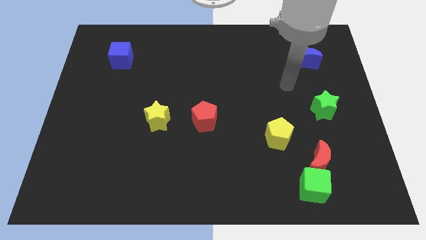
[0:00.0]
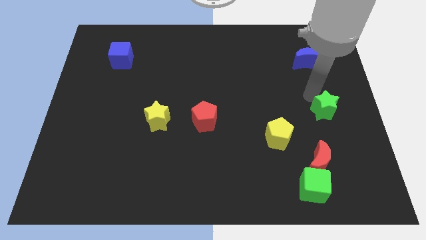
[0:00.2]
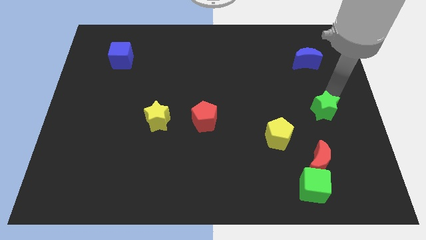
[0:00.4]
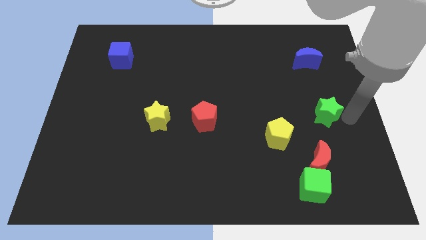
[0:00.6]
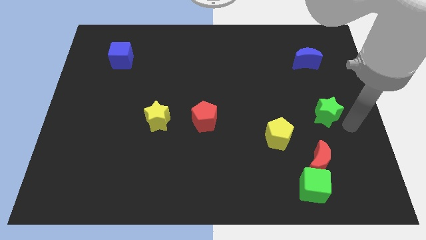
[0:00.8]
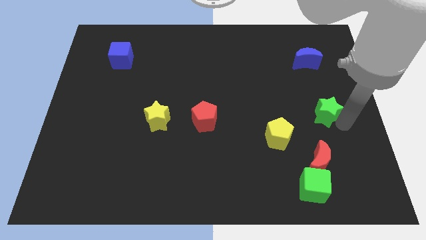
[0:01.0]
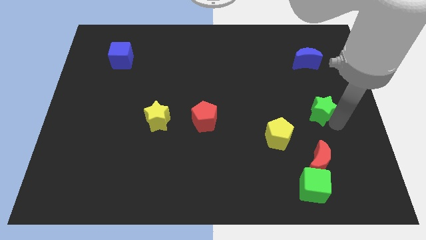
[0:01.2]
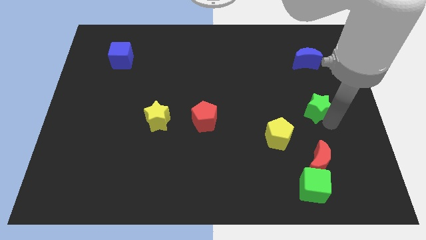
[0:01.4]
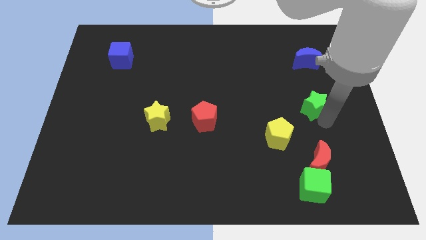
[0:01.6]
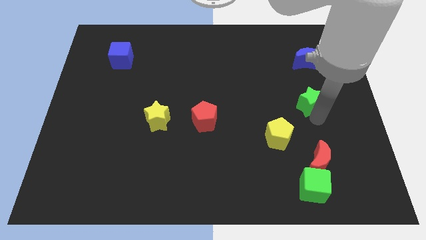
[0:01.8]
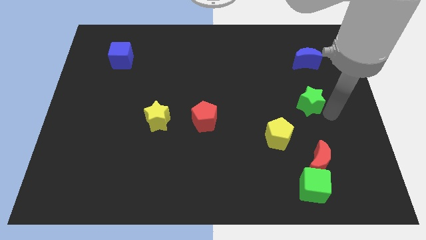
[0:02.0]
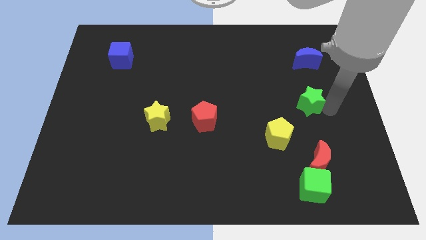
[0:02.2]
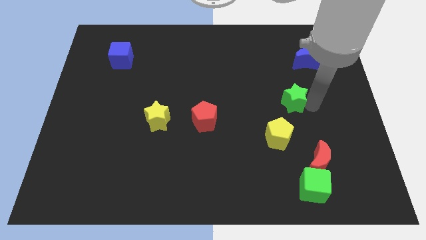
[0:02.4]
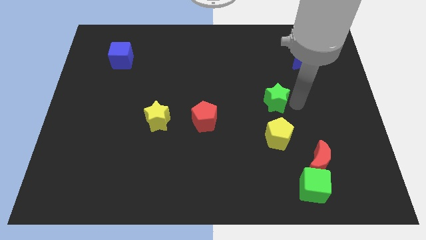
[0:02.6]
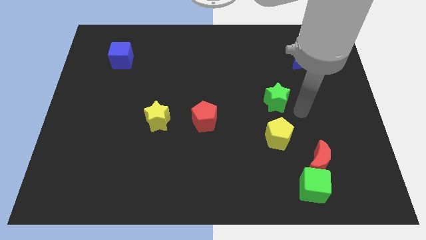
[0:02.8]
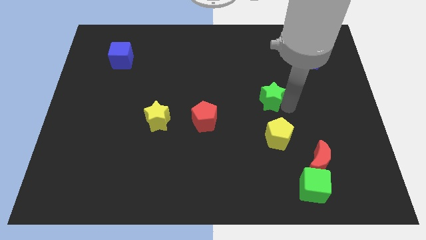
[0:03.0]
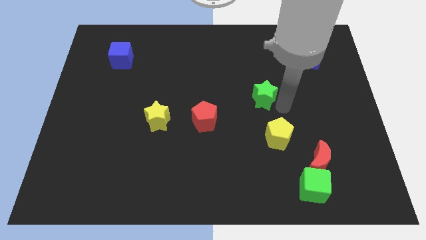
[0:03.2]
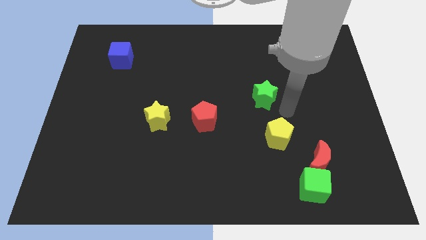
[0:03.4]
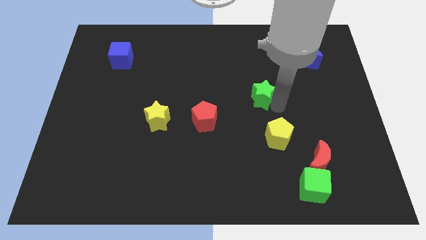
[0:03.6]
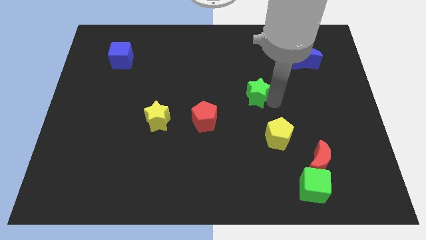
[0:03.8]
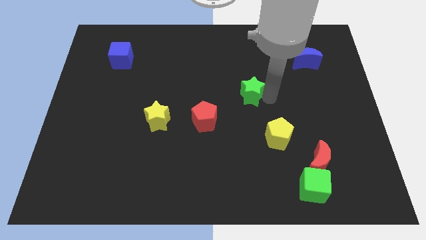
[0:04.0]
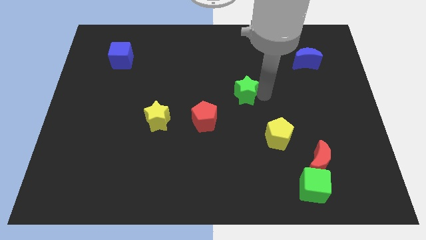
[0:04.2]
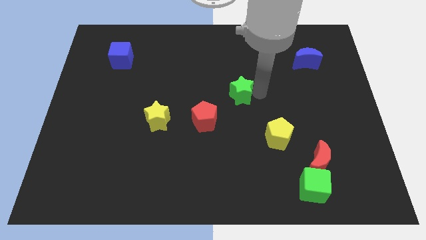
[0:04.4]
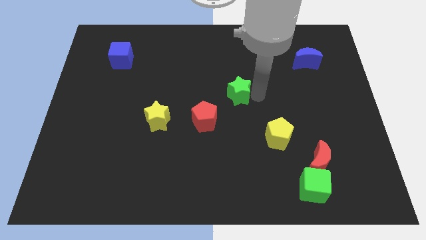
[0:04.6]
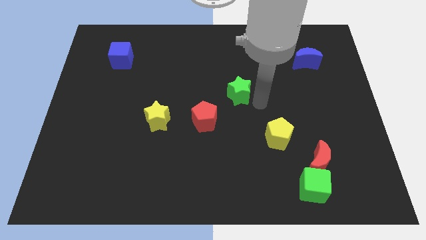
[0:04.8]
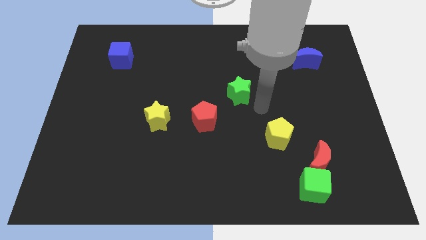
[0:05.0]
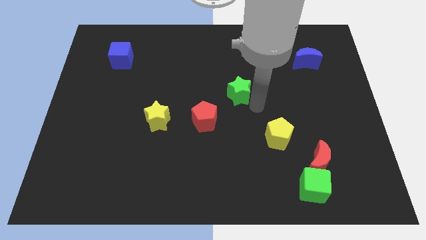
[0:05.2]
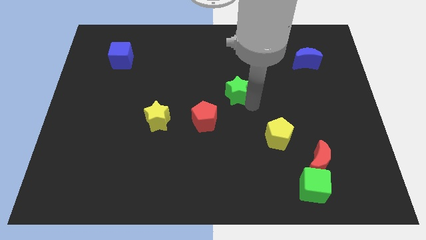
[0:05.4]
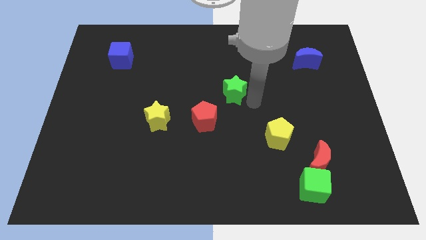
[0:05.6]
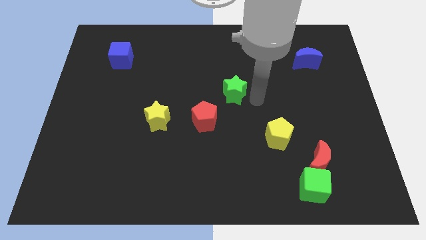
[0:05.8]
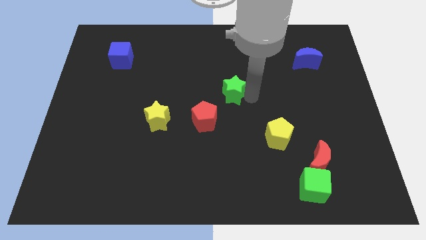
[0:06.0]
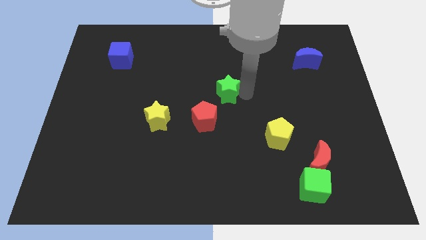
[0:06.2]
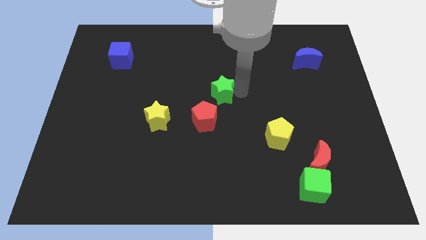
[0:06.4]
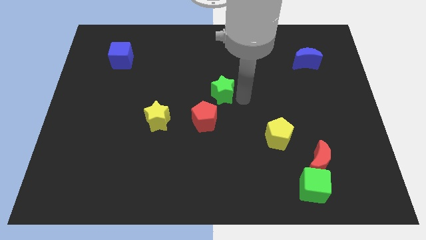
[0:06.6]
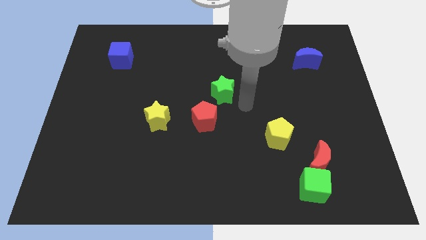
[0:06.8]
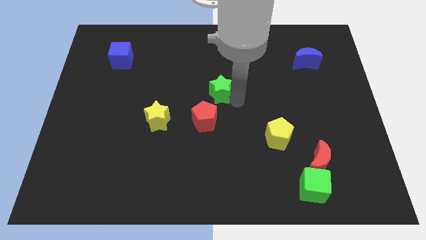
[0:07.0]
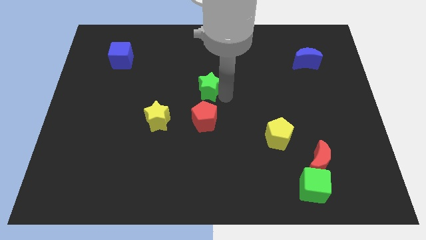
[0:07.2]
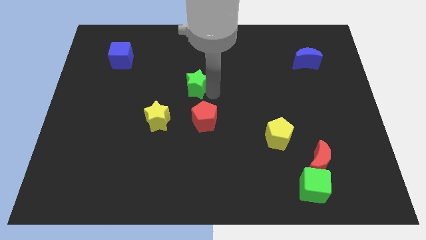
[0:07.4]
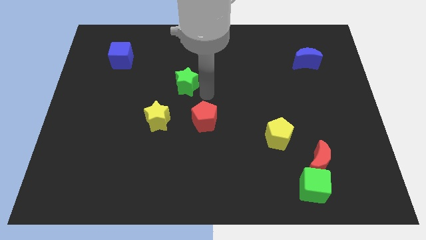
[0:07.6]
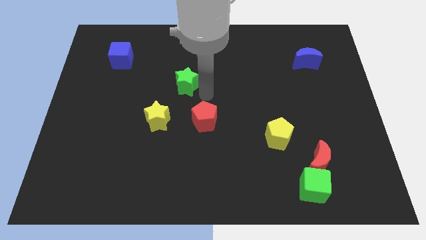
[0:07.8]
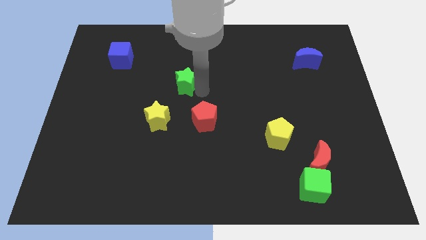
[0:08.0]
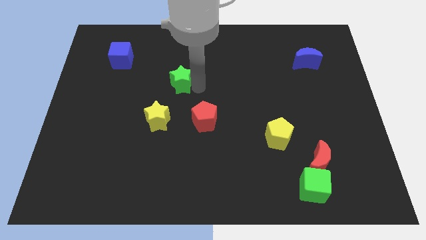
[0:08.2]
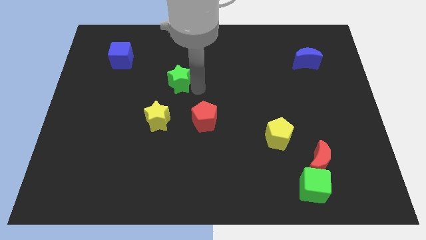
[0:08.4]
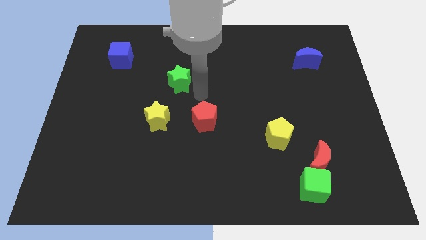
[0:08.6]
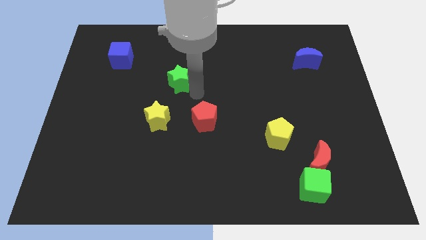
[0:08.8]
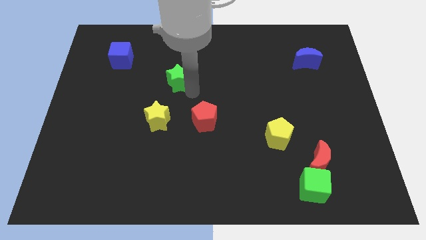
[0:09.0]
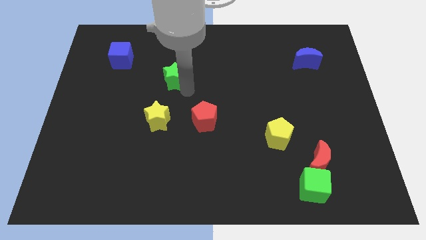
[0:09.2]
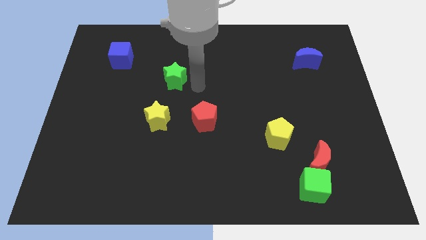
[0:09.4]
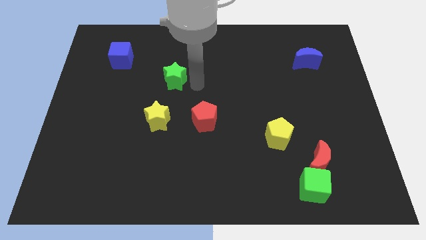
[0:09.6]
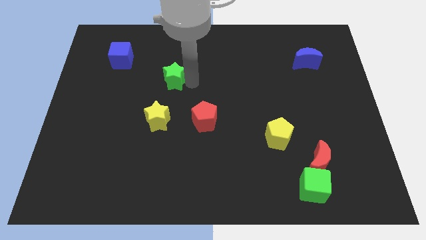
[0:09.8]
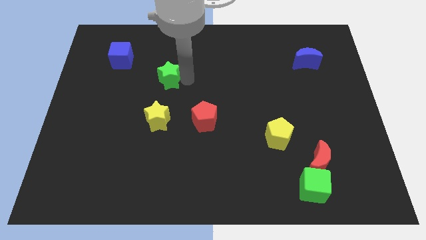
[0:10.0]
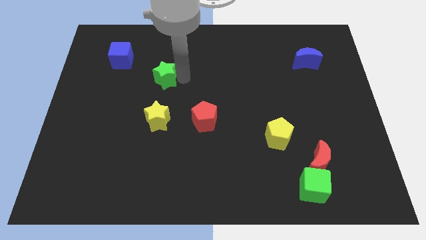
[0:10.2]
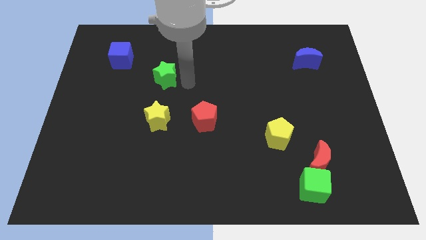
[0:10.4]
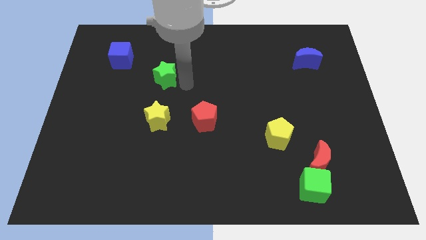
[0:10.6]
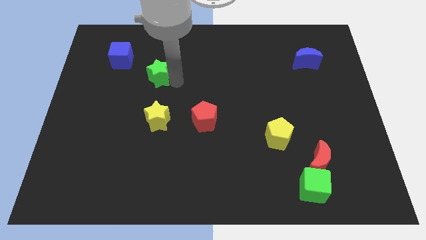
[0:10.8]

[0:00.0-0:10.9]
push the green star diagonally down and to the right of the blue cube

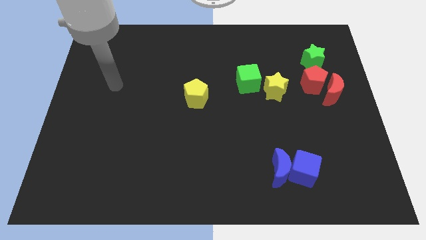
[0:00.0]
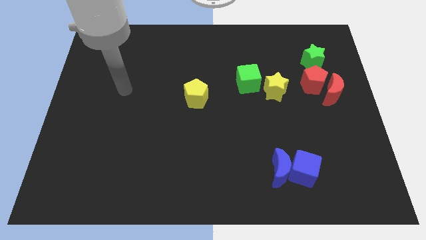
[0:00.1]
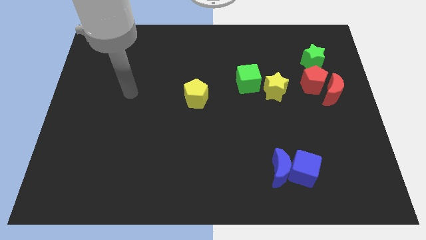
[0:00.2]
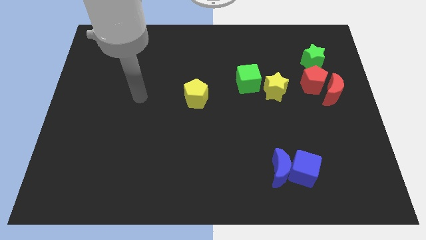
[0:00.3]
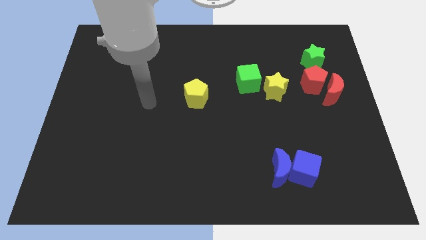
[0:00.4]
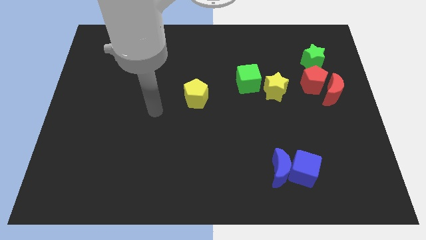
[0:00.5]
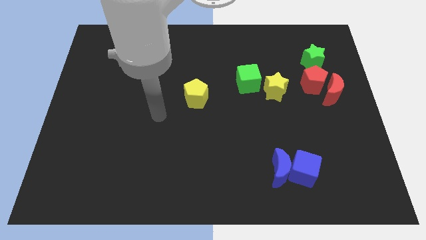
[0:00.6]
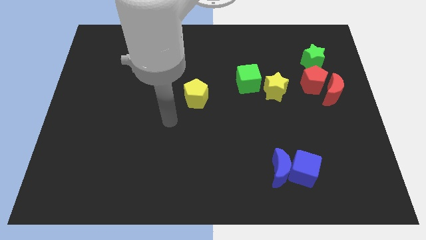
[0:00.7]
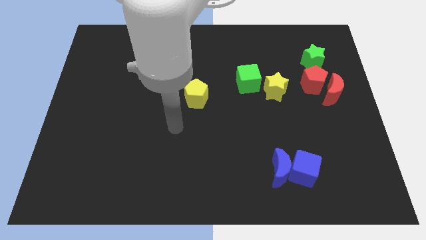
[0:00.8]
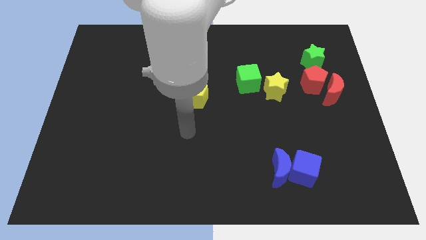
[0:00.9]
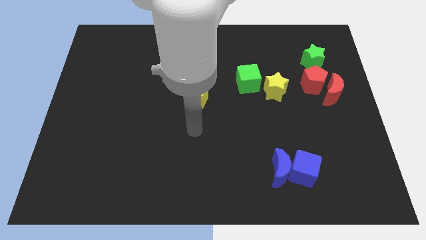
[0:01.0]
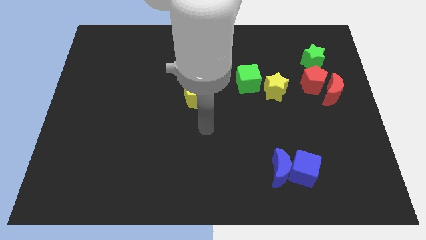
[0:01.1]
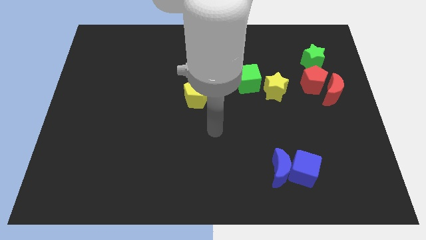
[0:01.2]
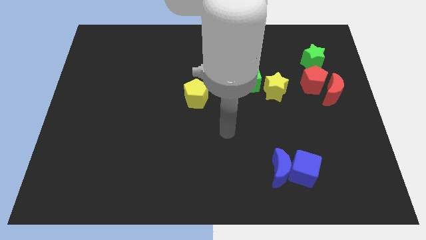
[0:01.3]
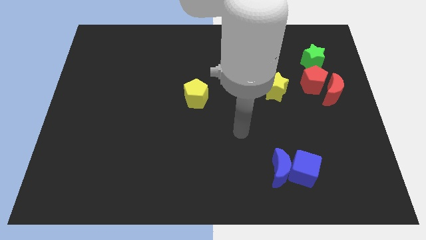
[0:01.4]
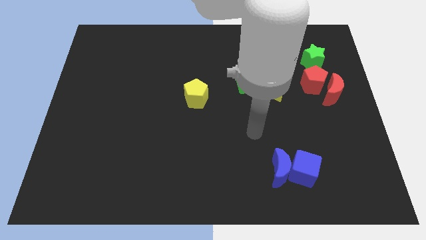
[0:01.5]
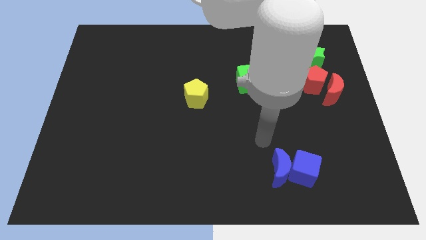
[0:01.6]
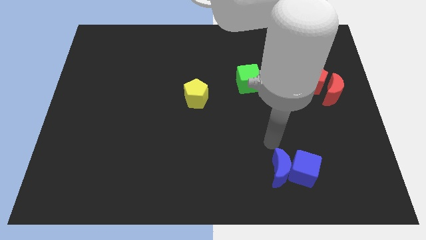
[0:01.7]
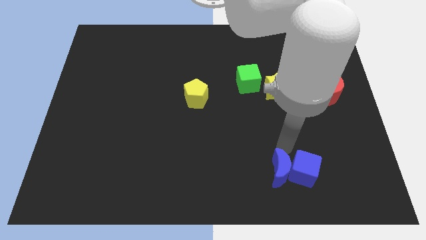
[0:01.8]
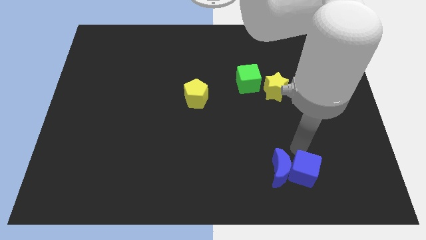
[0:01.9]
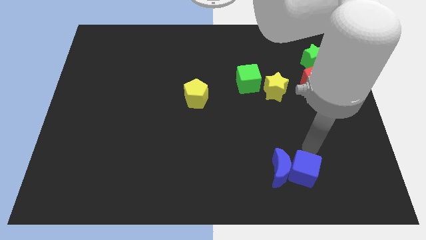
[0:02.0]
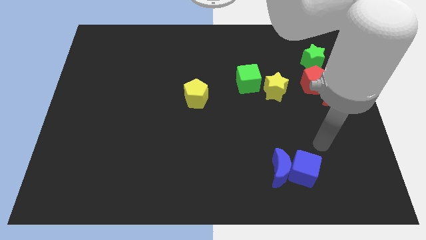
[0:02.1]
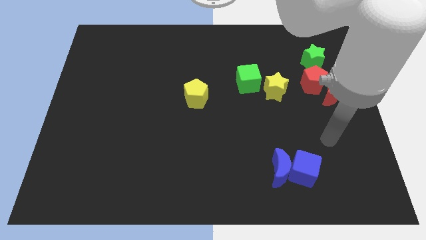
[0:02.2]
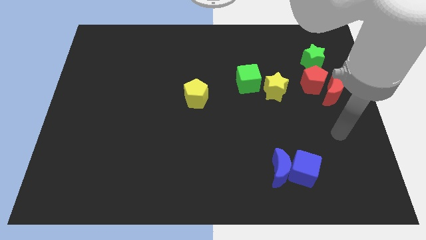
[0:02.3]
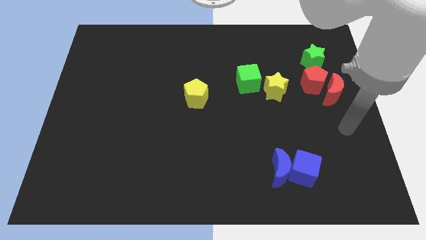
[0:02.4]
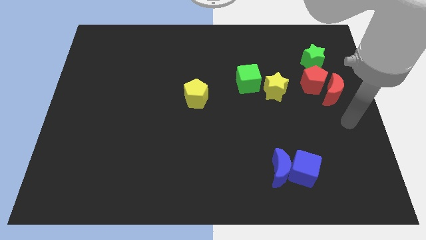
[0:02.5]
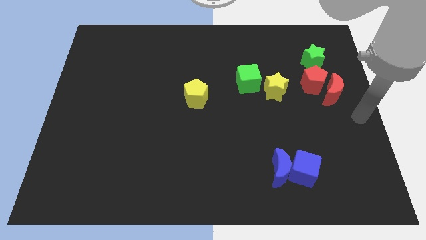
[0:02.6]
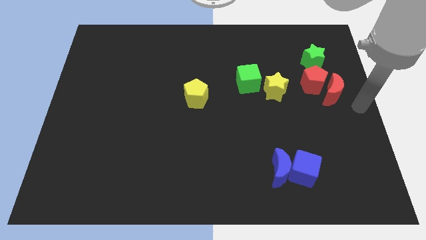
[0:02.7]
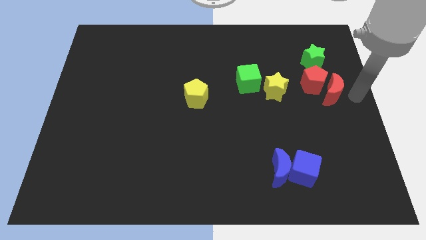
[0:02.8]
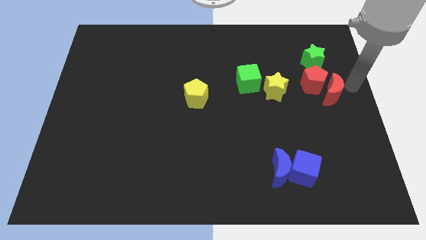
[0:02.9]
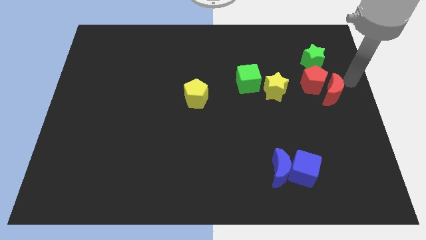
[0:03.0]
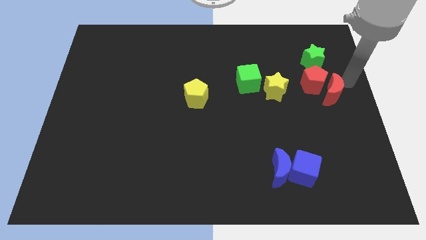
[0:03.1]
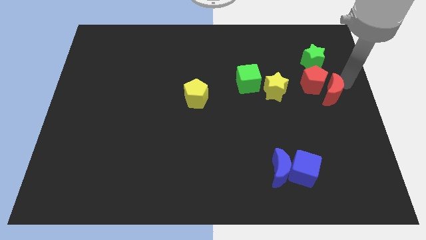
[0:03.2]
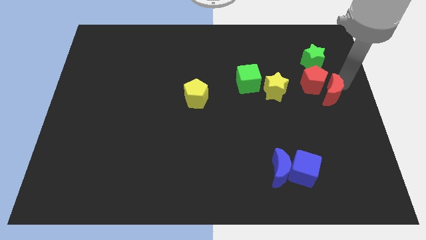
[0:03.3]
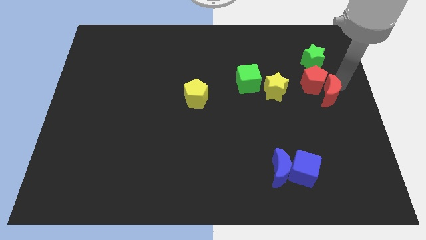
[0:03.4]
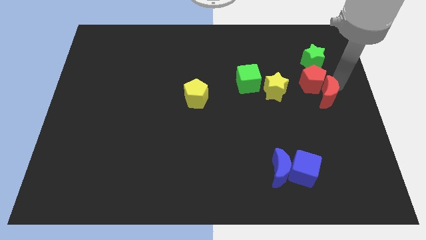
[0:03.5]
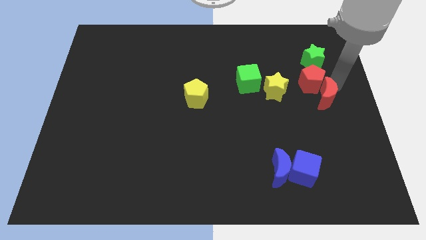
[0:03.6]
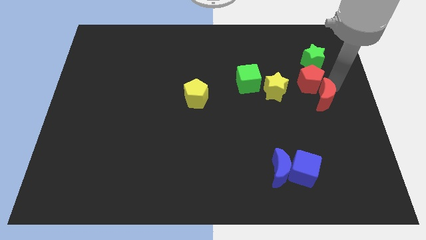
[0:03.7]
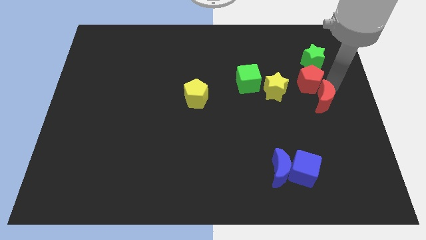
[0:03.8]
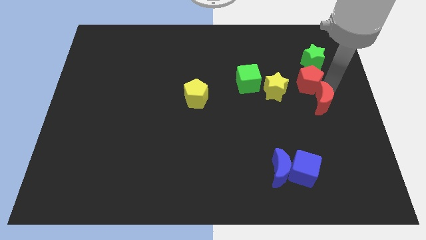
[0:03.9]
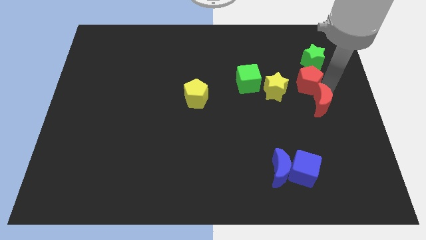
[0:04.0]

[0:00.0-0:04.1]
put the red moon to the bottom right of the yellow star
